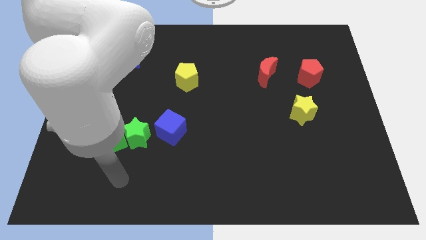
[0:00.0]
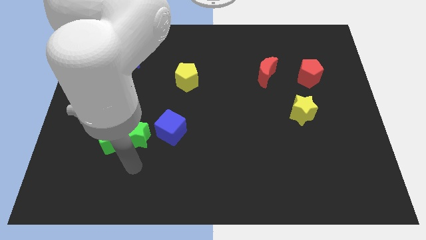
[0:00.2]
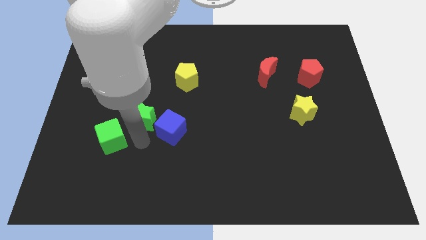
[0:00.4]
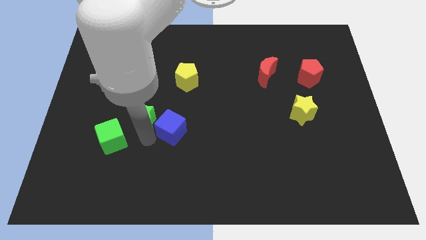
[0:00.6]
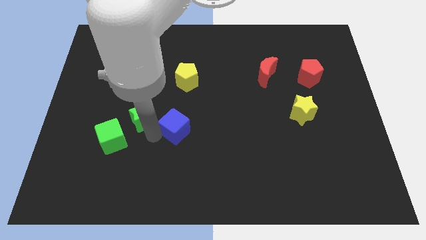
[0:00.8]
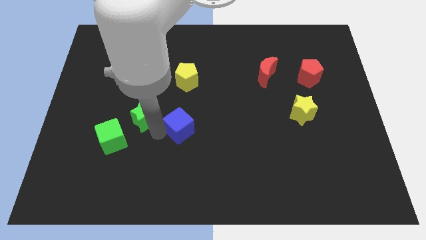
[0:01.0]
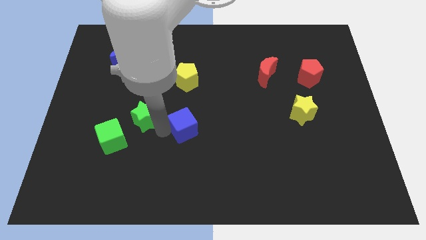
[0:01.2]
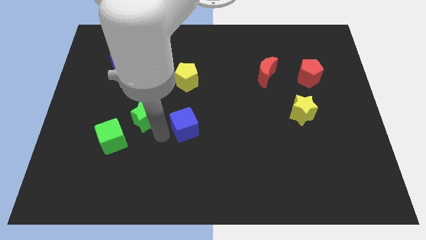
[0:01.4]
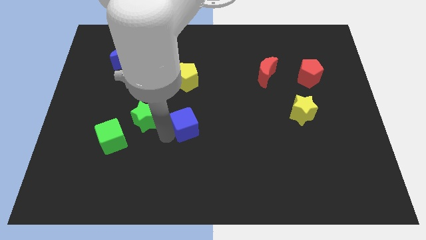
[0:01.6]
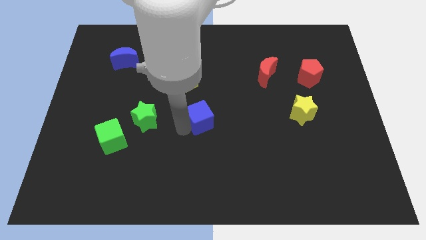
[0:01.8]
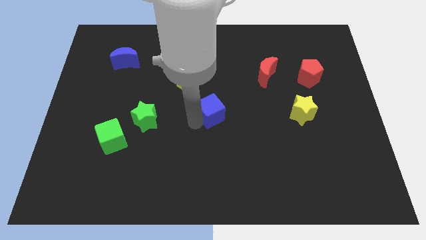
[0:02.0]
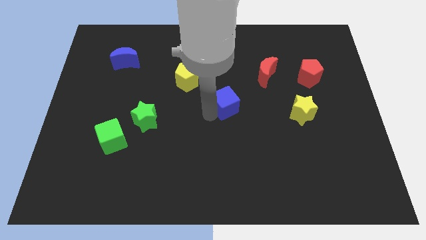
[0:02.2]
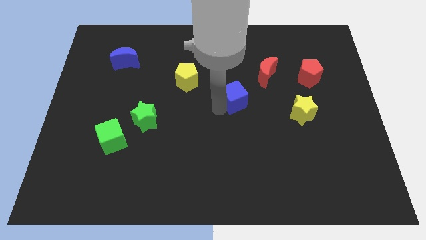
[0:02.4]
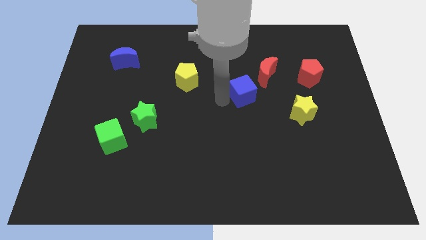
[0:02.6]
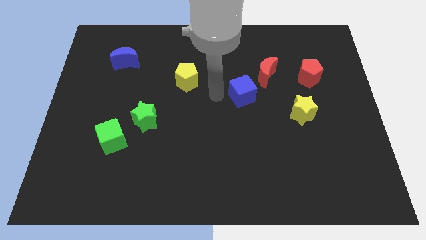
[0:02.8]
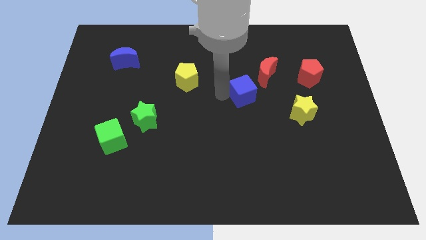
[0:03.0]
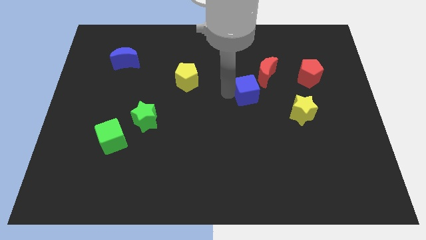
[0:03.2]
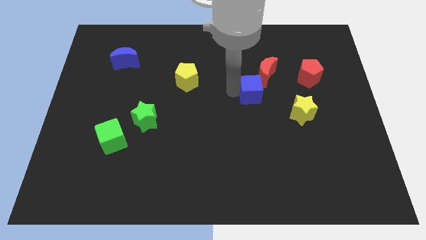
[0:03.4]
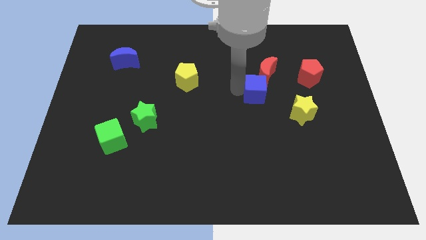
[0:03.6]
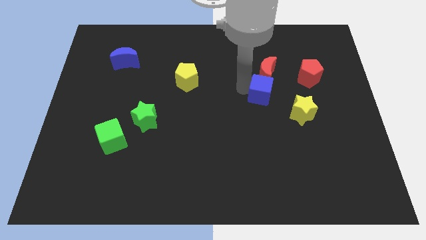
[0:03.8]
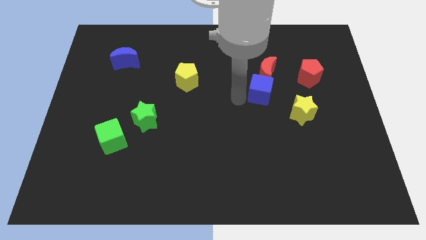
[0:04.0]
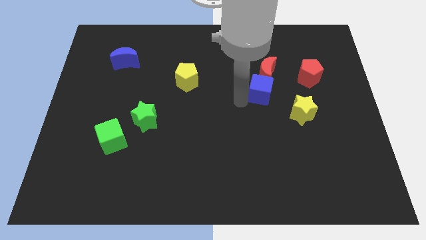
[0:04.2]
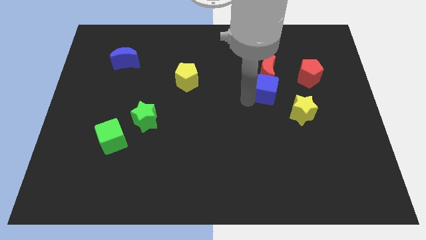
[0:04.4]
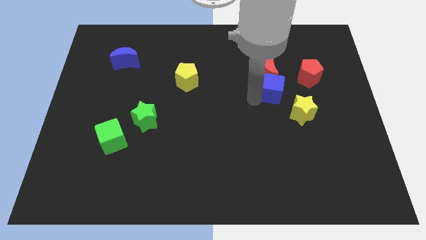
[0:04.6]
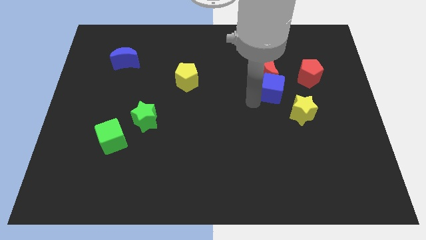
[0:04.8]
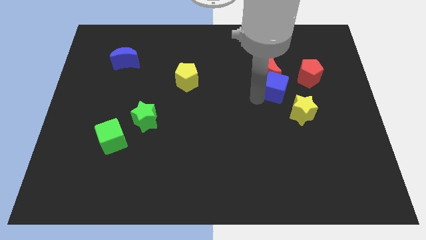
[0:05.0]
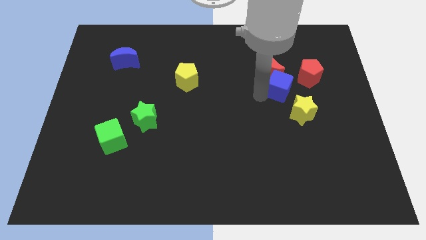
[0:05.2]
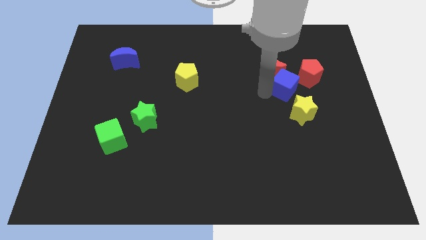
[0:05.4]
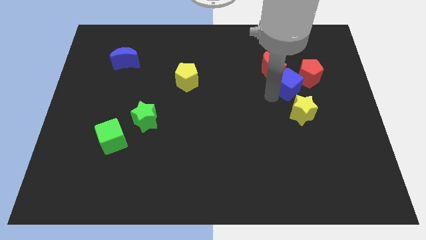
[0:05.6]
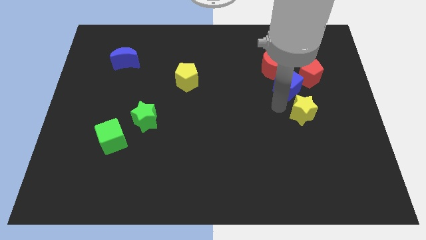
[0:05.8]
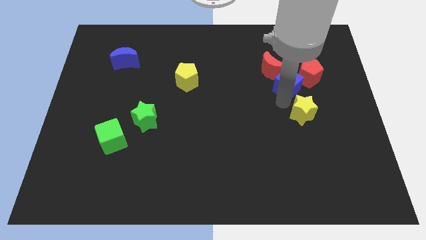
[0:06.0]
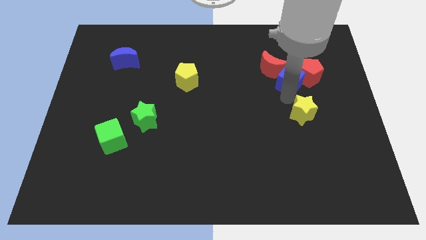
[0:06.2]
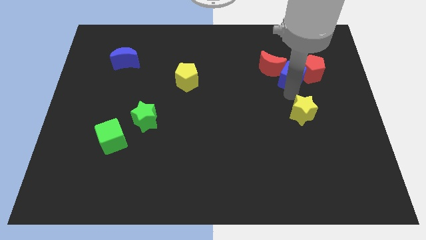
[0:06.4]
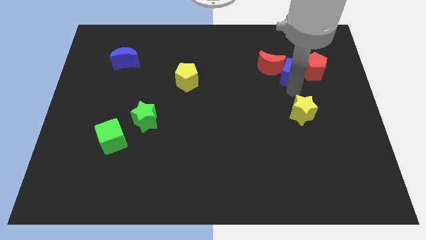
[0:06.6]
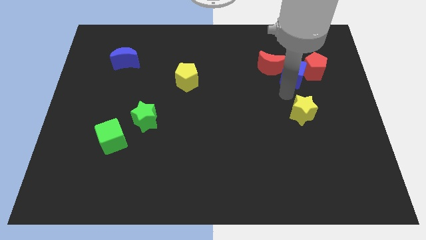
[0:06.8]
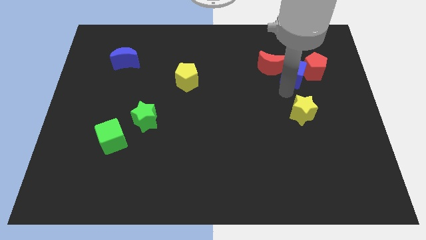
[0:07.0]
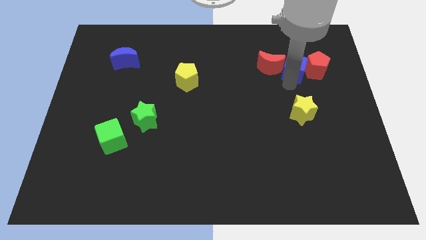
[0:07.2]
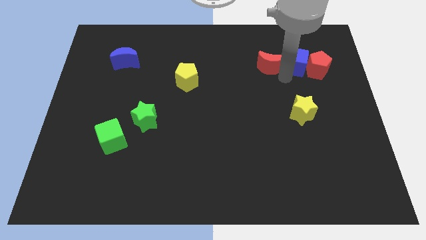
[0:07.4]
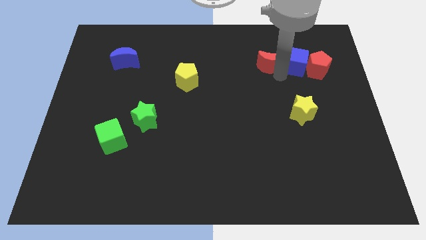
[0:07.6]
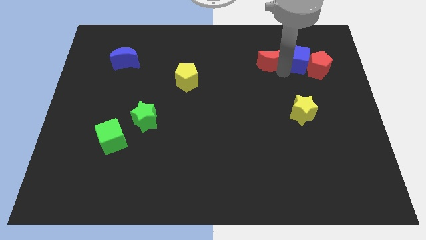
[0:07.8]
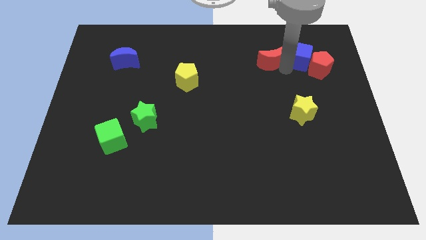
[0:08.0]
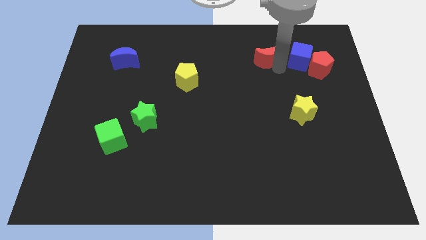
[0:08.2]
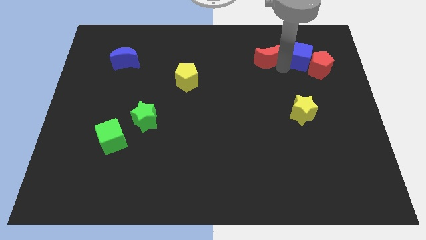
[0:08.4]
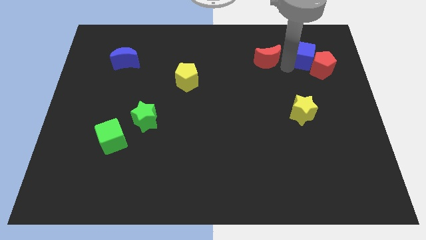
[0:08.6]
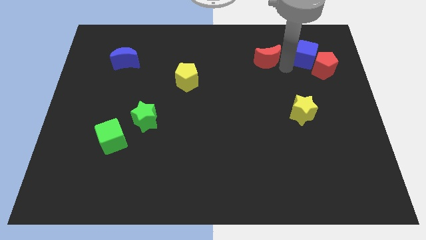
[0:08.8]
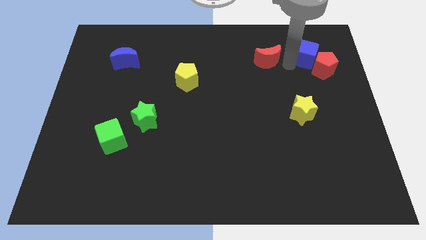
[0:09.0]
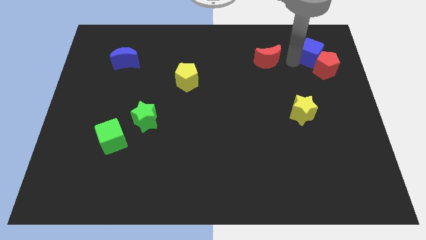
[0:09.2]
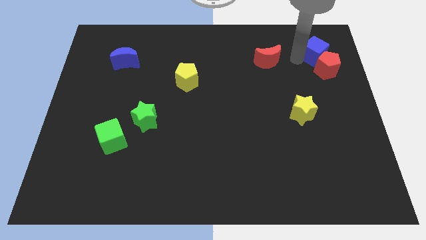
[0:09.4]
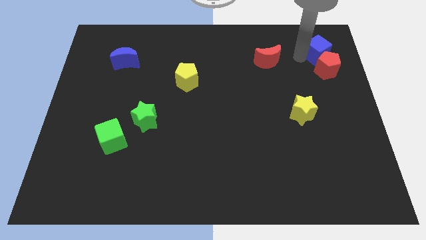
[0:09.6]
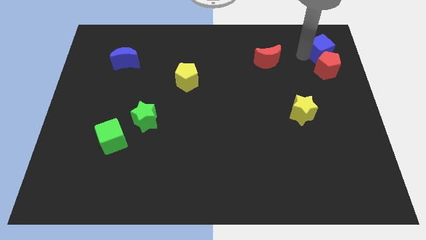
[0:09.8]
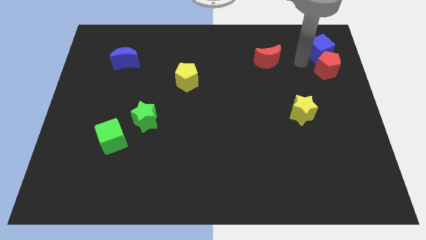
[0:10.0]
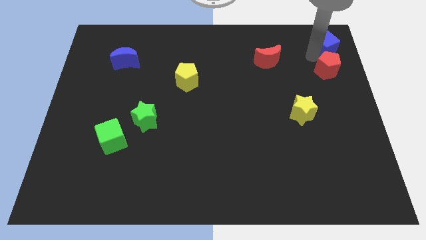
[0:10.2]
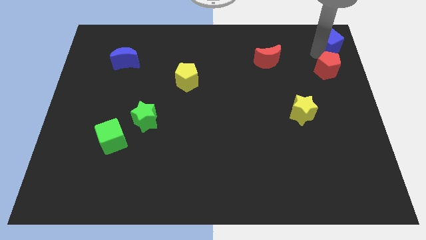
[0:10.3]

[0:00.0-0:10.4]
push the blue cube to the top right corner

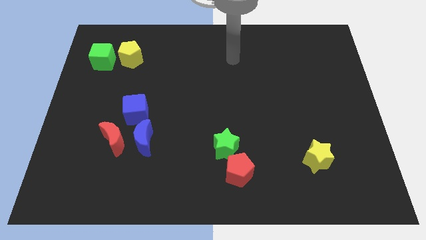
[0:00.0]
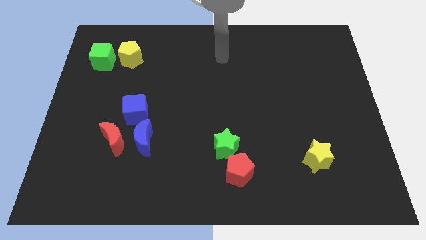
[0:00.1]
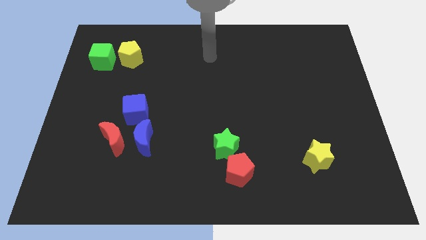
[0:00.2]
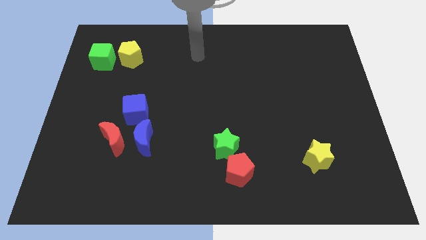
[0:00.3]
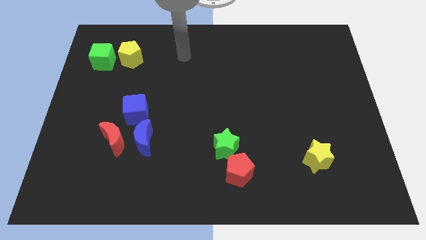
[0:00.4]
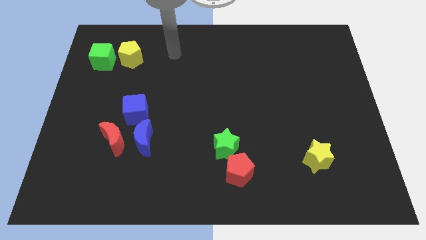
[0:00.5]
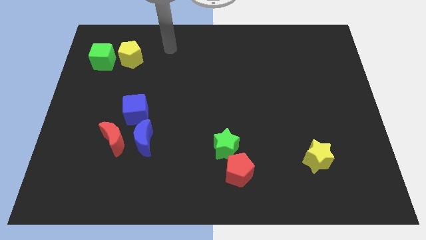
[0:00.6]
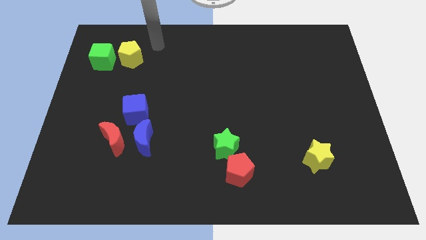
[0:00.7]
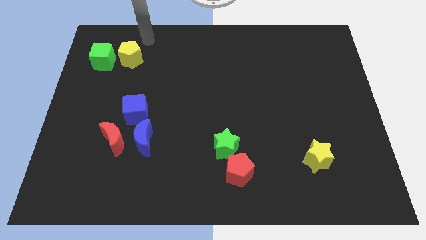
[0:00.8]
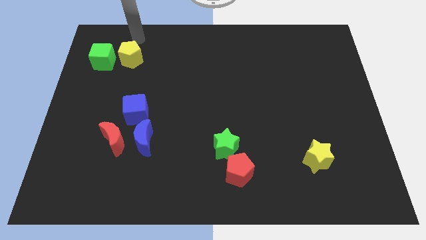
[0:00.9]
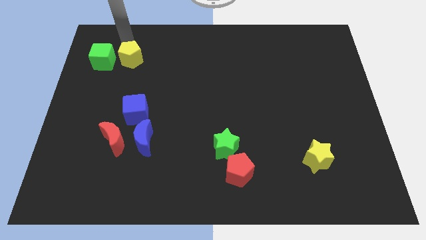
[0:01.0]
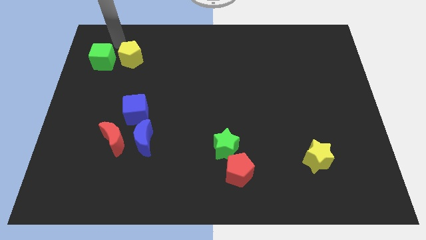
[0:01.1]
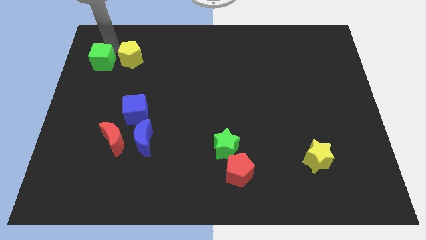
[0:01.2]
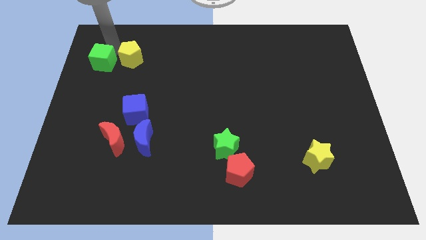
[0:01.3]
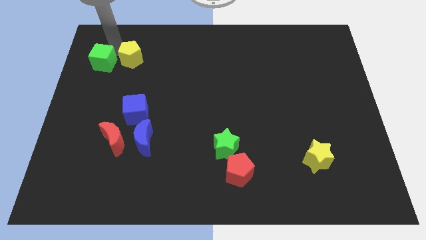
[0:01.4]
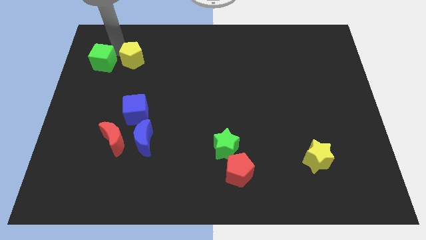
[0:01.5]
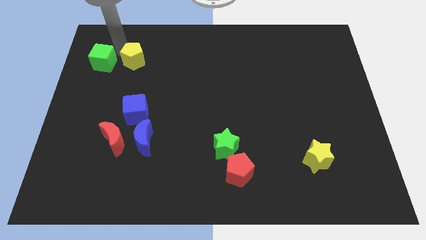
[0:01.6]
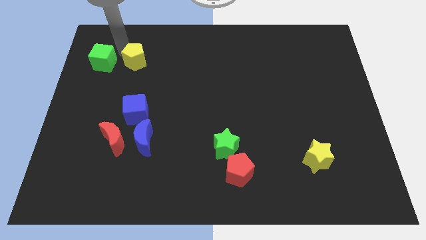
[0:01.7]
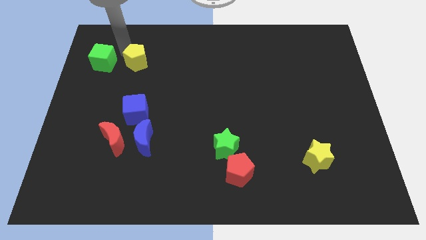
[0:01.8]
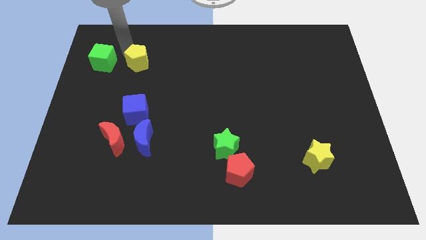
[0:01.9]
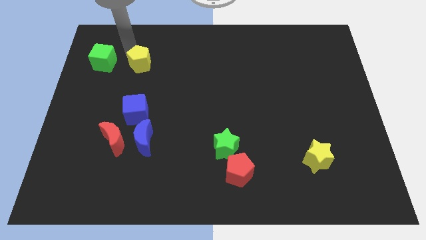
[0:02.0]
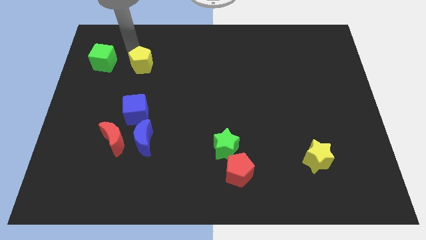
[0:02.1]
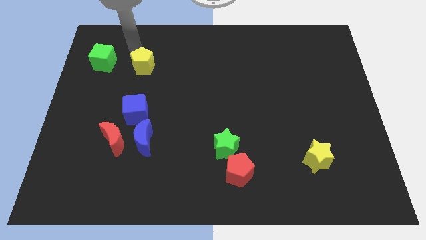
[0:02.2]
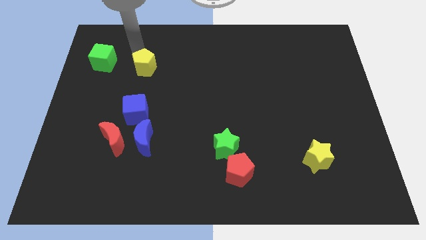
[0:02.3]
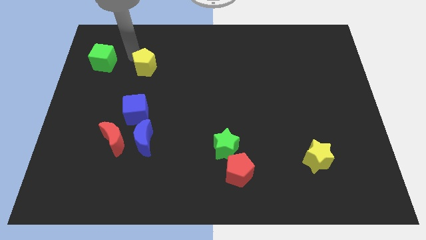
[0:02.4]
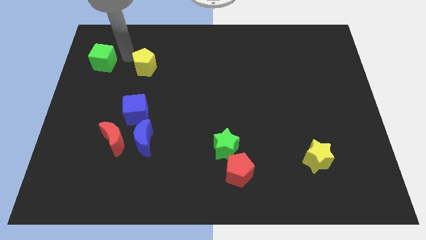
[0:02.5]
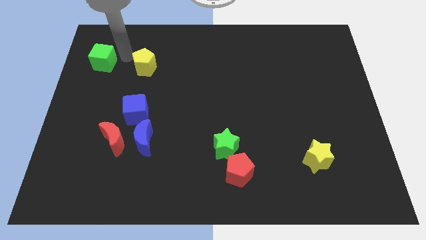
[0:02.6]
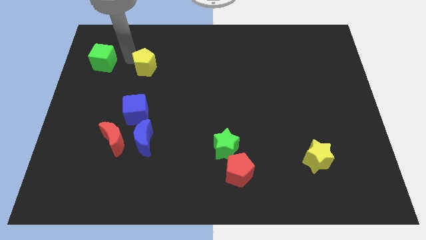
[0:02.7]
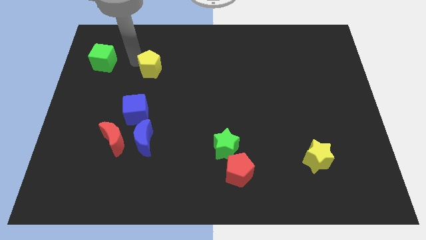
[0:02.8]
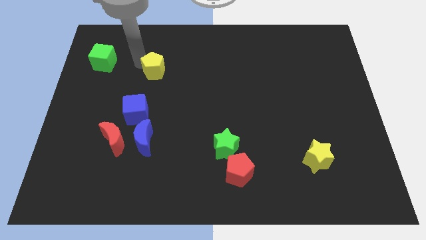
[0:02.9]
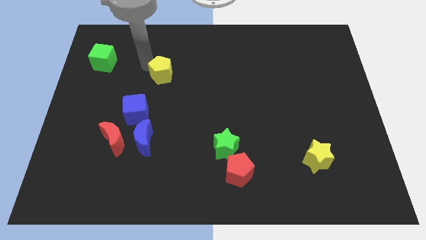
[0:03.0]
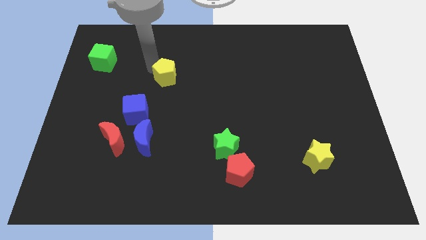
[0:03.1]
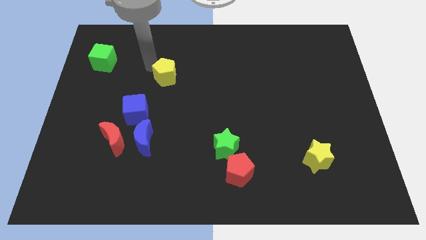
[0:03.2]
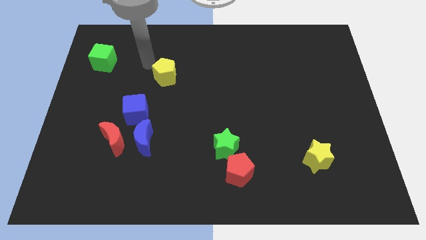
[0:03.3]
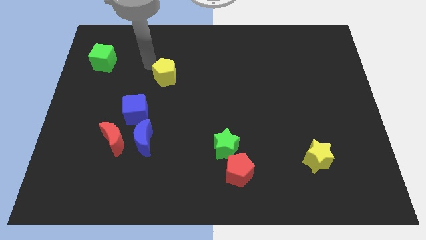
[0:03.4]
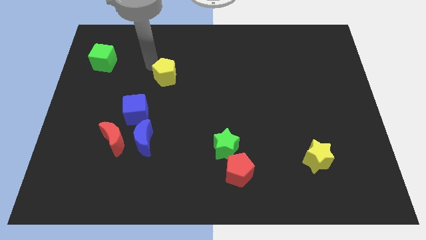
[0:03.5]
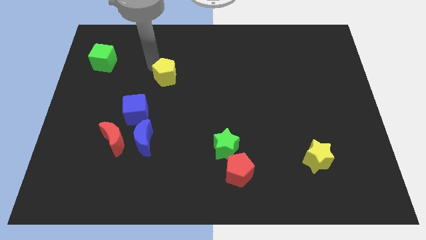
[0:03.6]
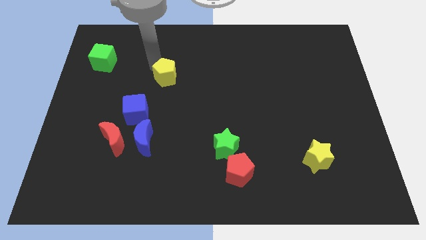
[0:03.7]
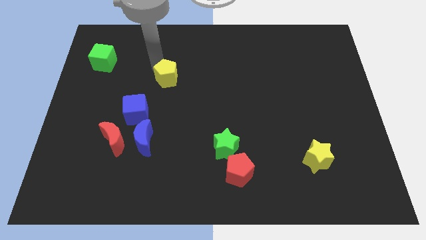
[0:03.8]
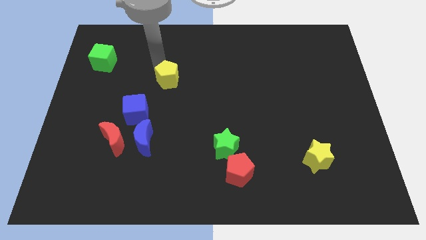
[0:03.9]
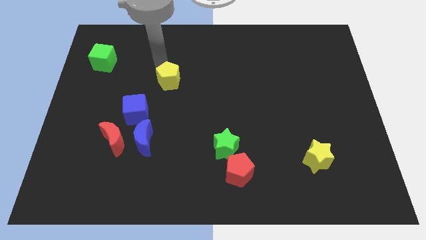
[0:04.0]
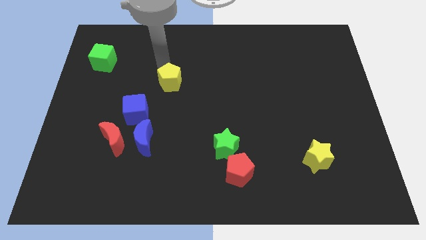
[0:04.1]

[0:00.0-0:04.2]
put the yellow pentagon to the center of the board
